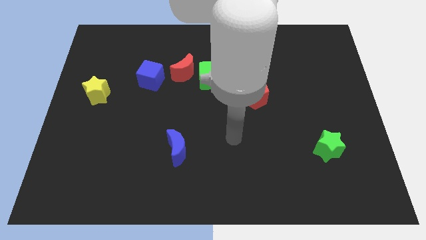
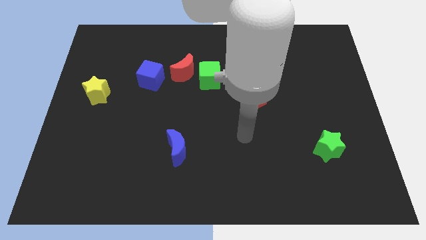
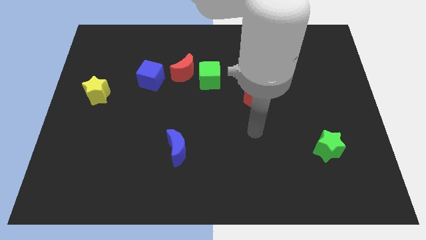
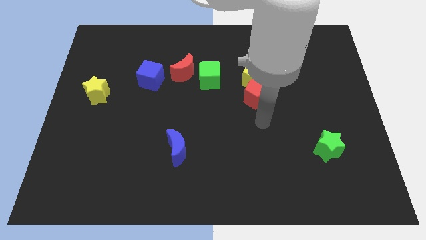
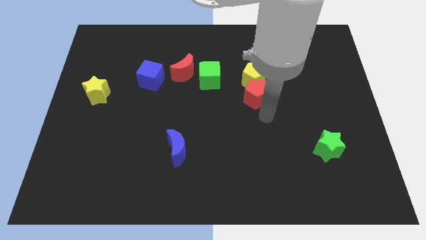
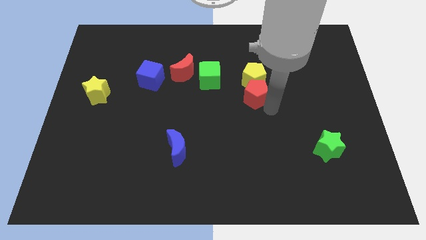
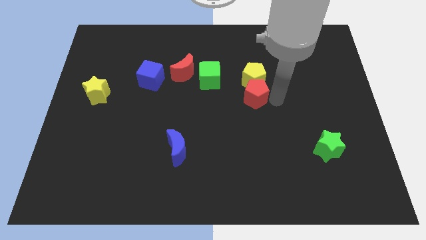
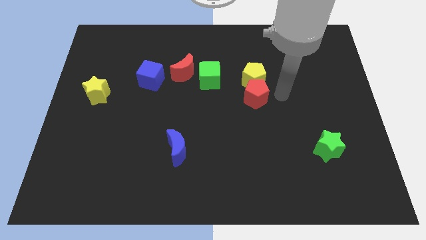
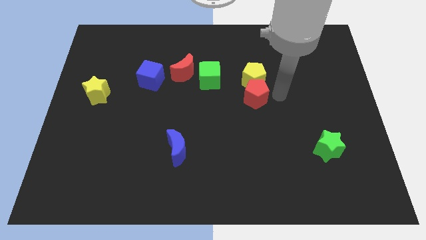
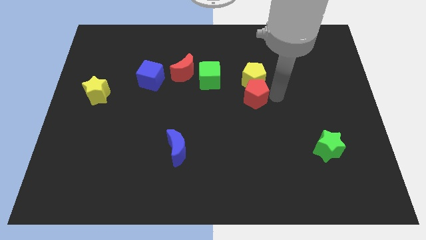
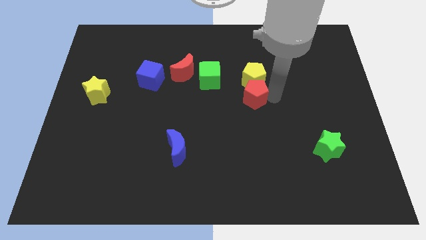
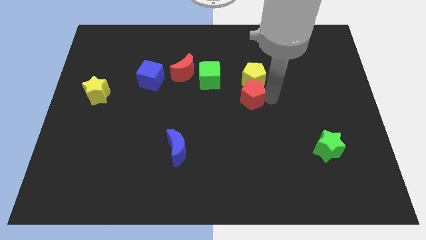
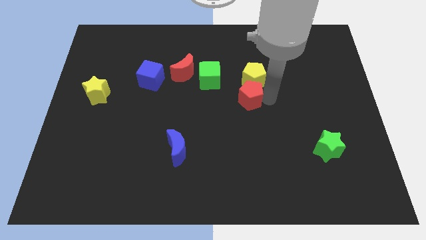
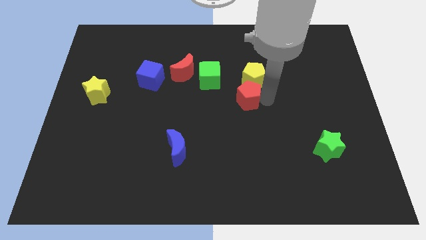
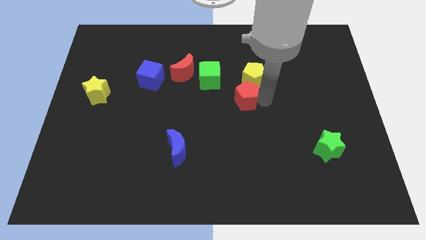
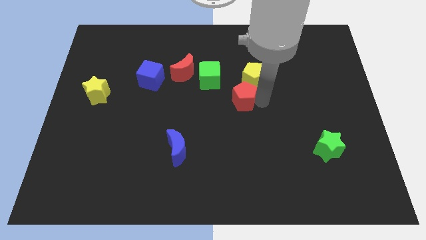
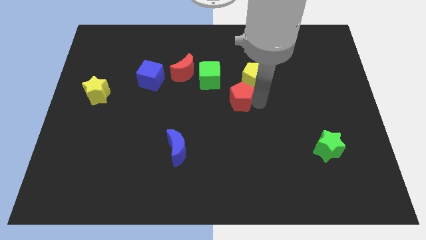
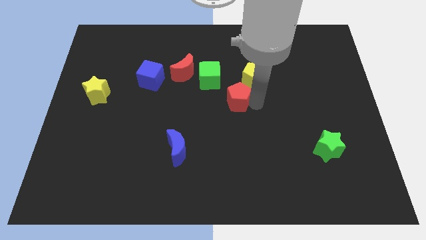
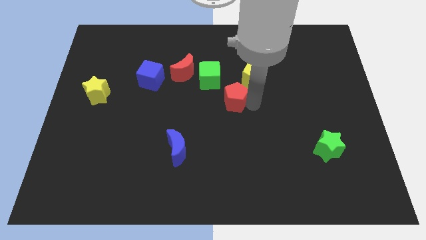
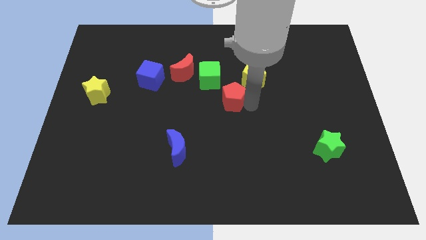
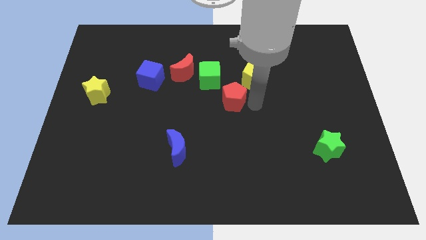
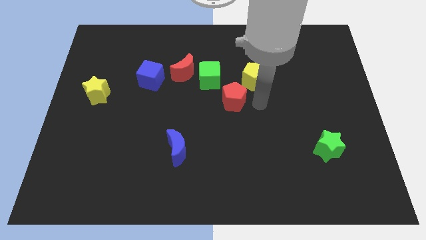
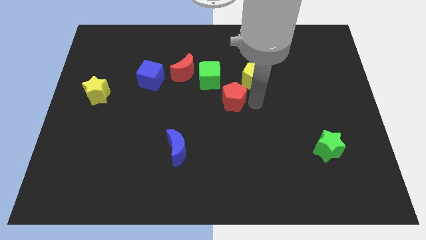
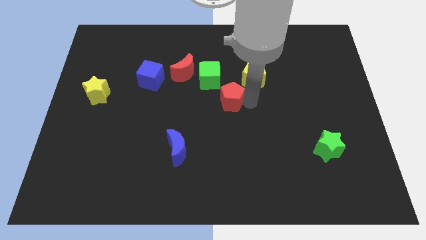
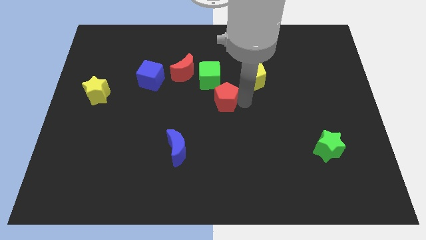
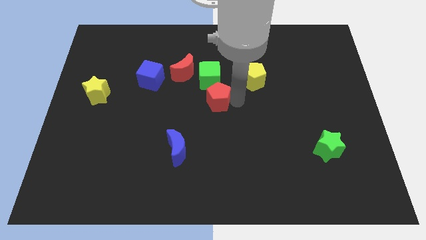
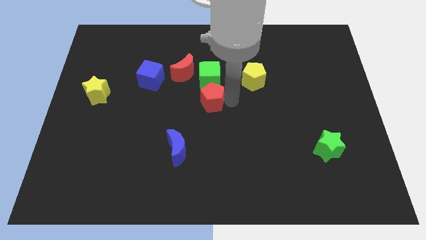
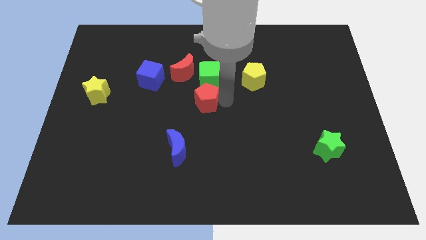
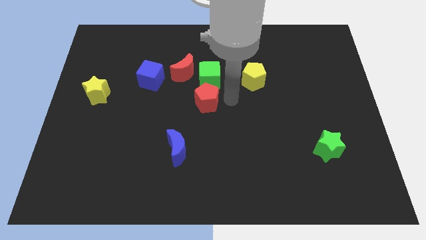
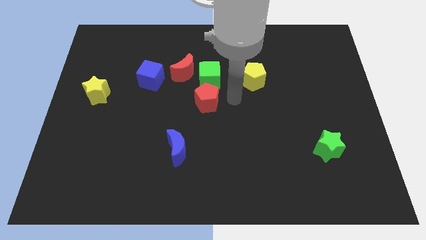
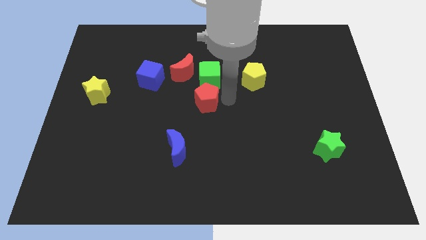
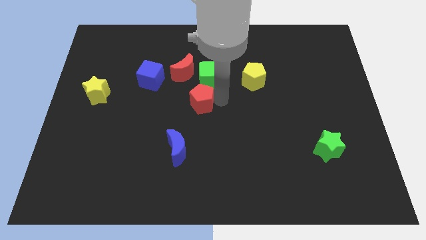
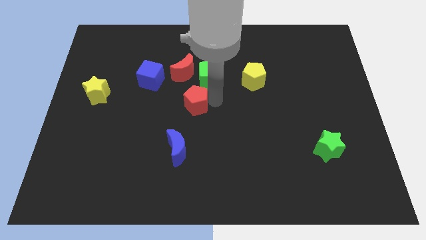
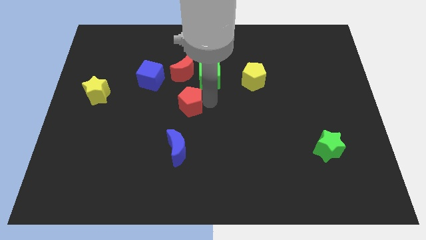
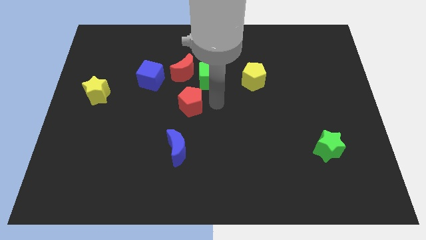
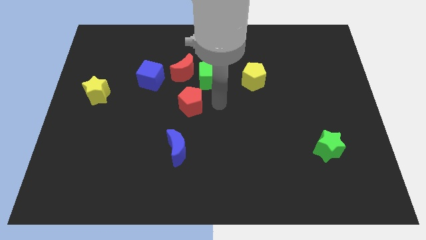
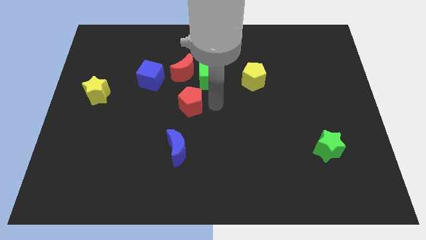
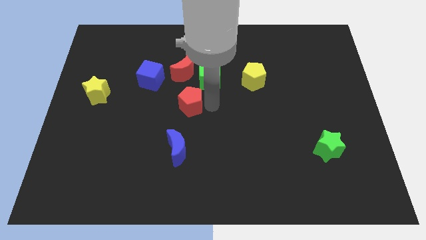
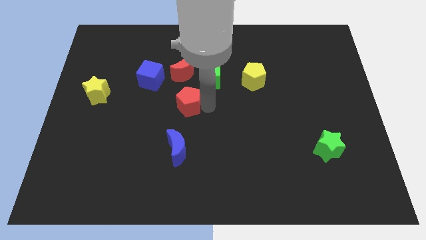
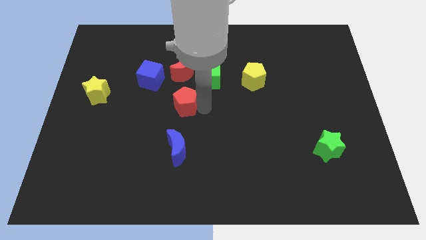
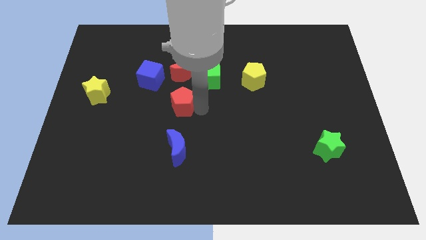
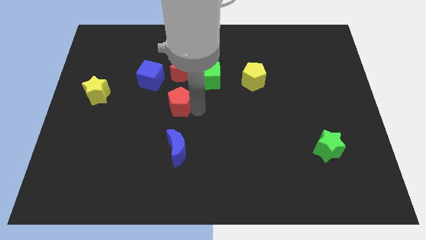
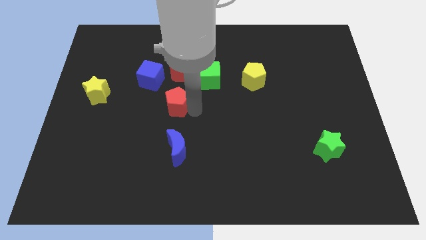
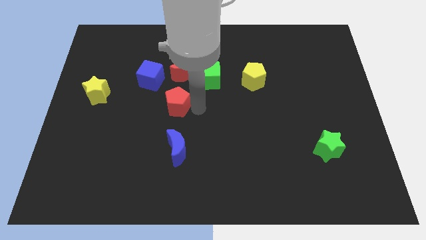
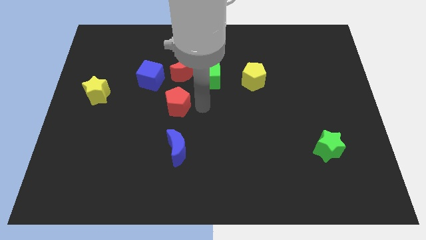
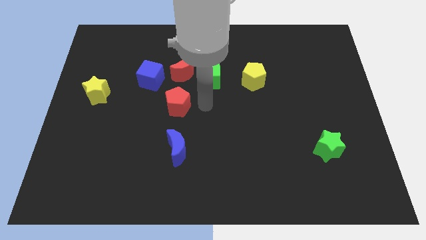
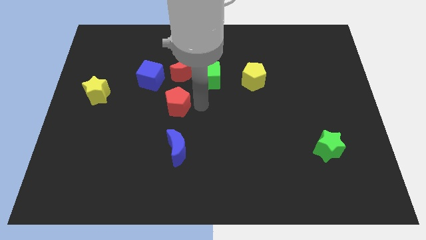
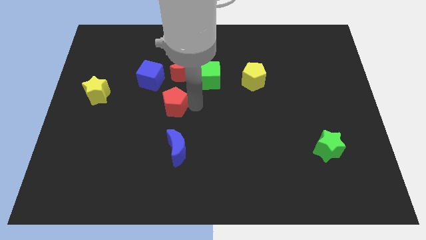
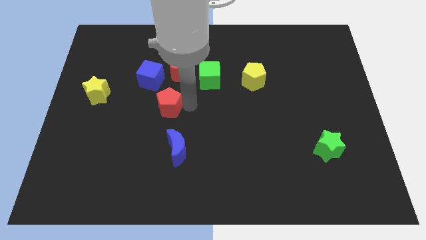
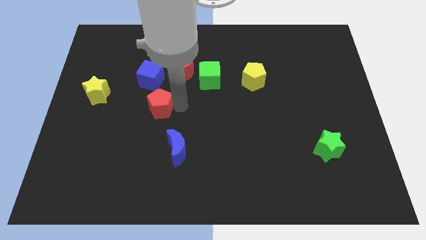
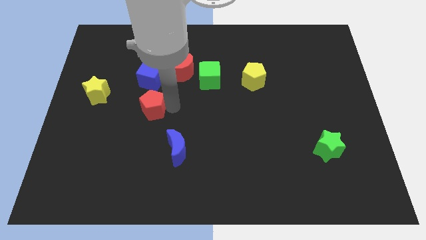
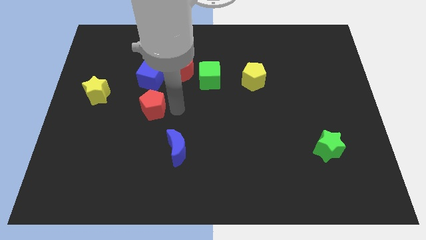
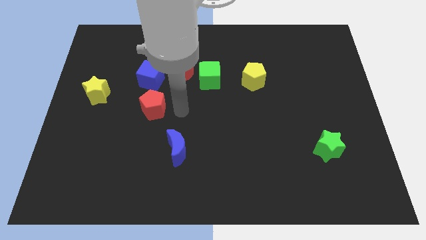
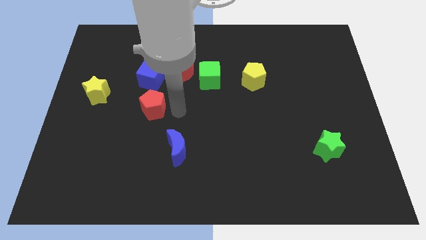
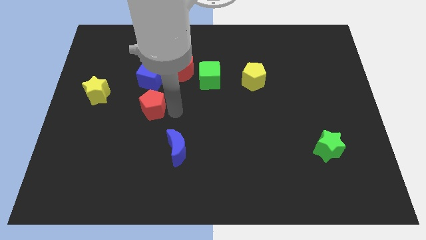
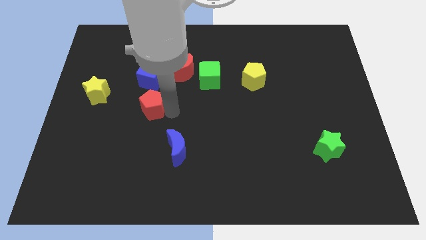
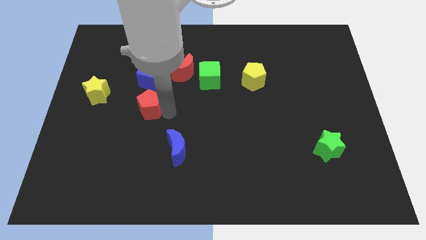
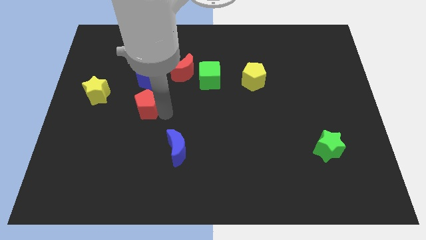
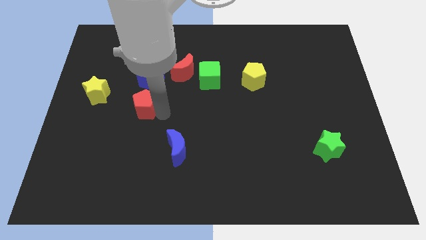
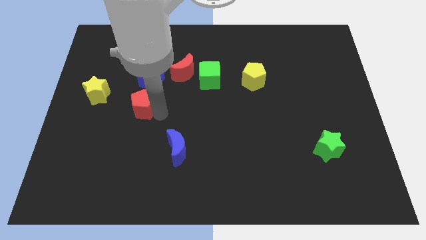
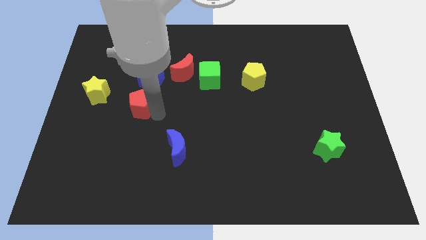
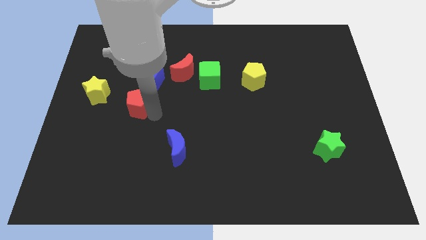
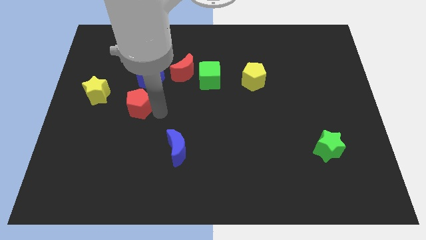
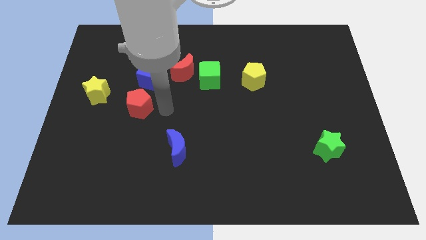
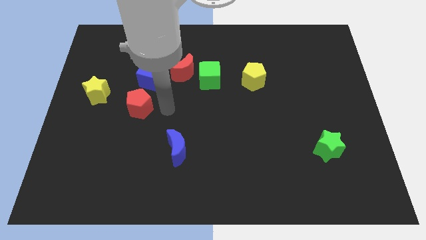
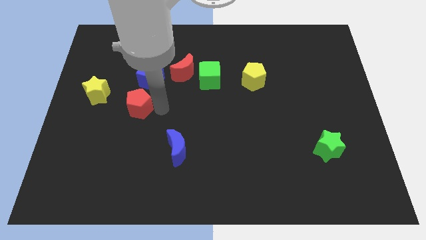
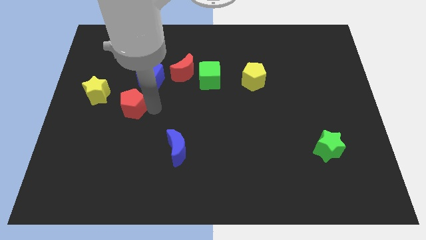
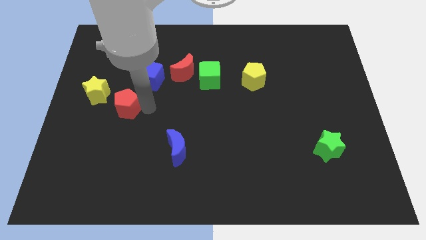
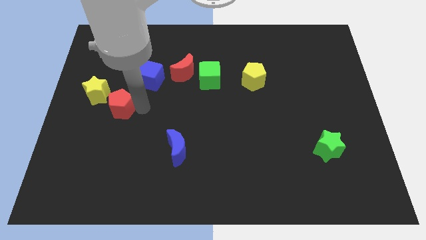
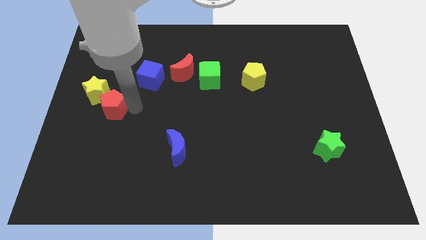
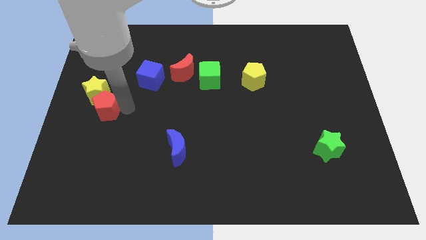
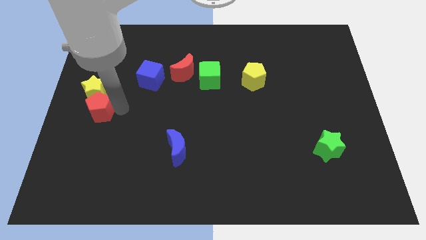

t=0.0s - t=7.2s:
push the red pentagon to the left side of the board
